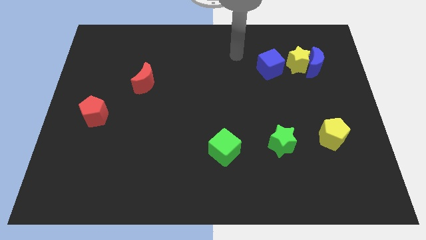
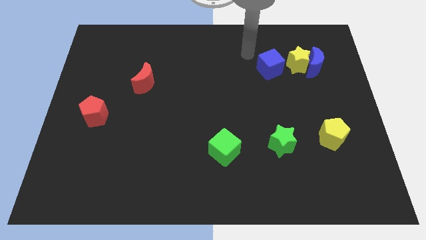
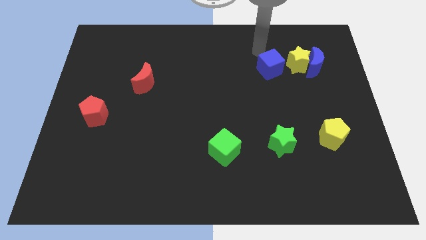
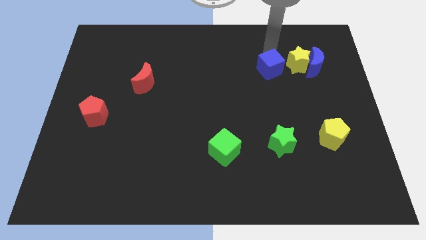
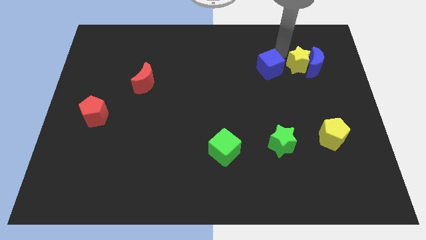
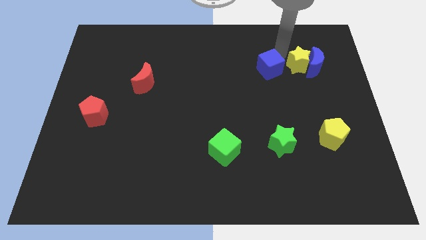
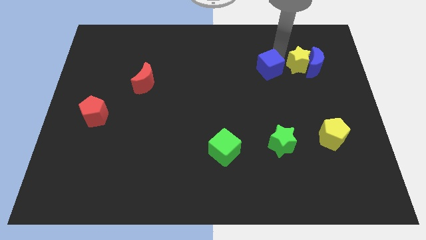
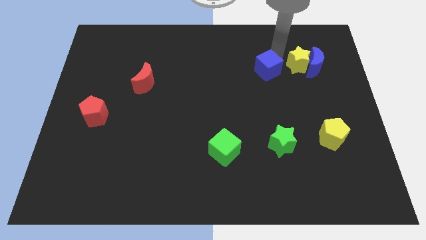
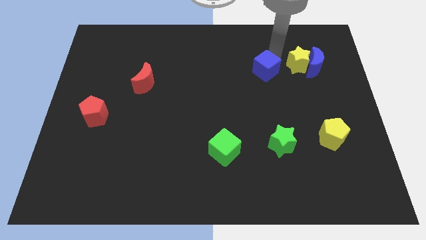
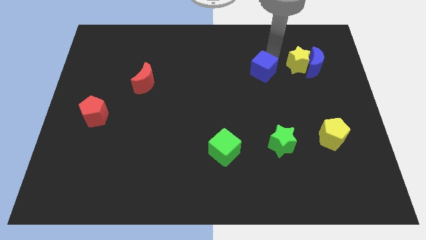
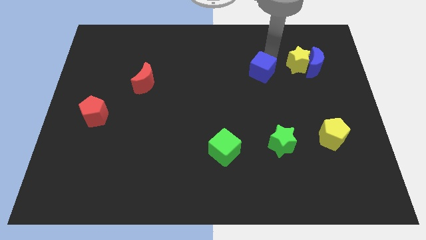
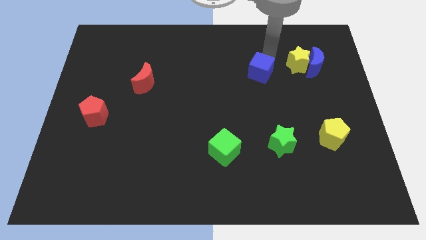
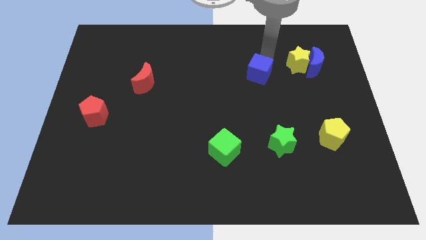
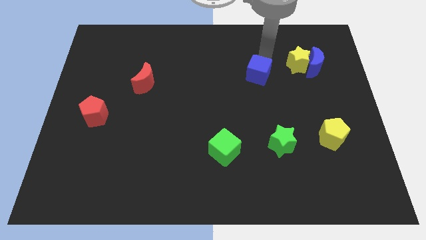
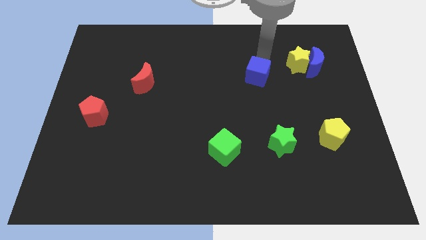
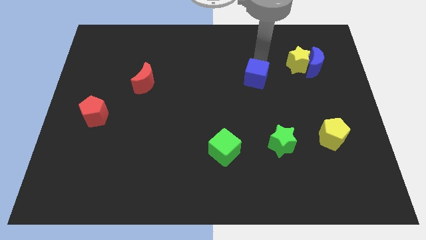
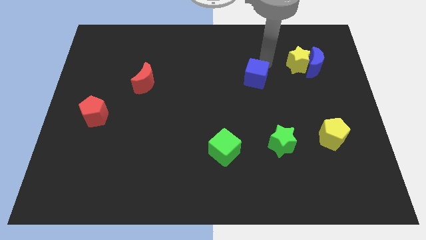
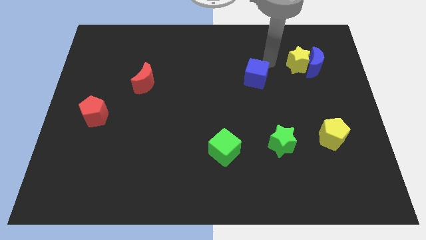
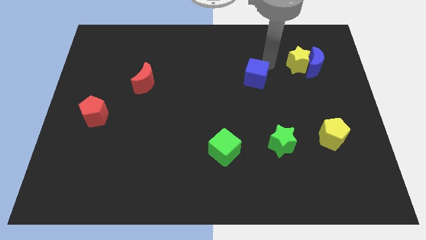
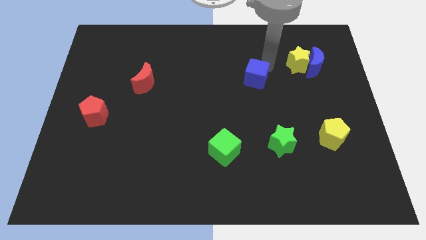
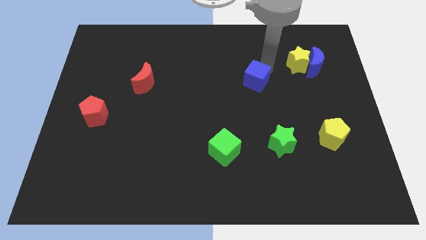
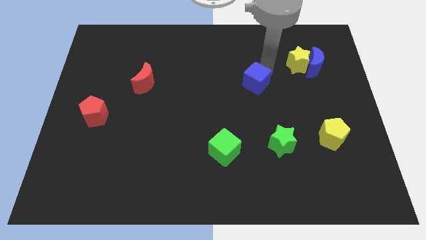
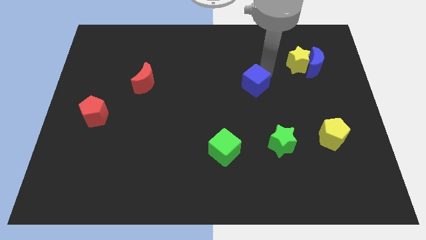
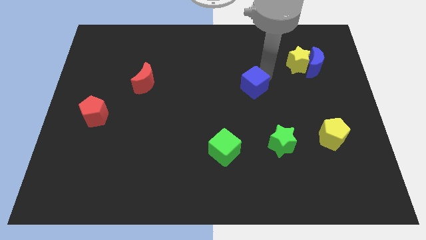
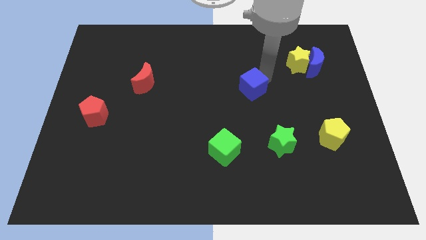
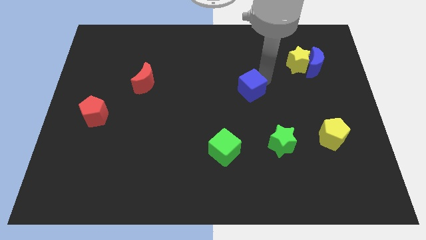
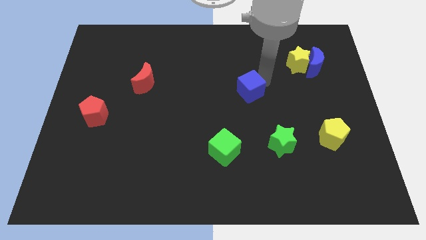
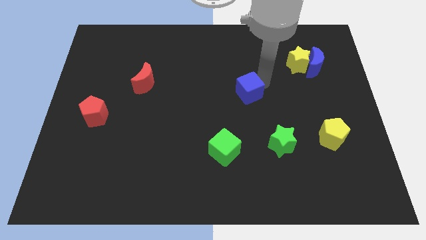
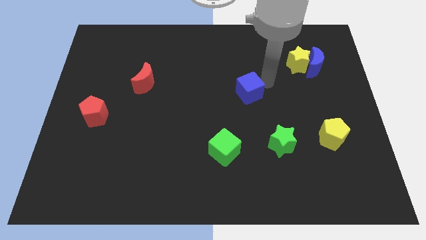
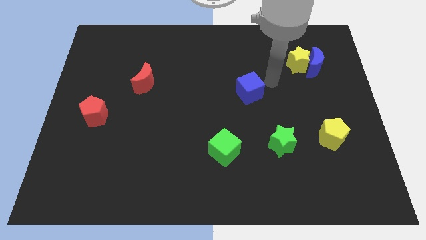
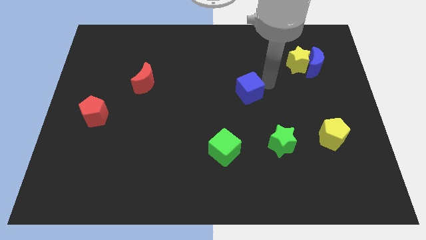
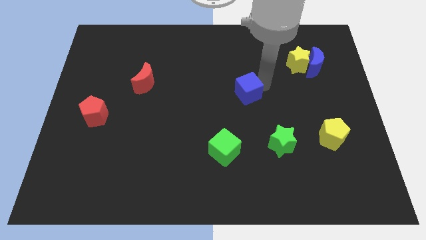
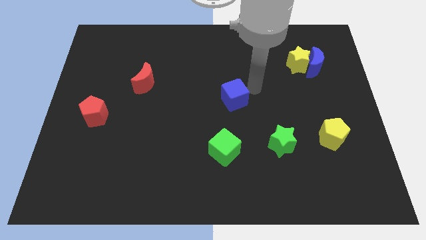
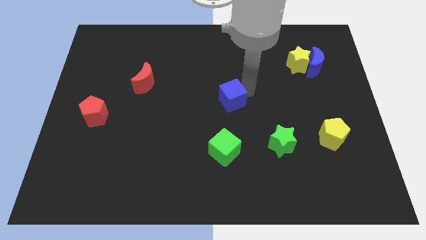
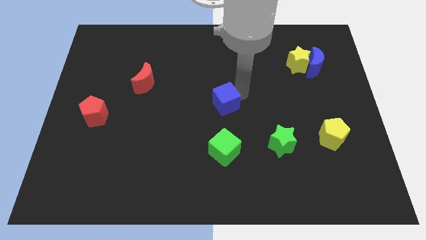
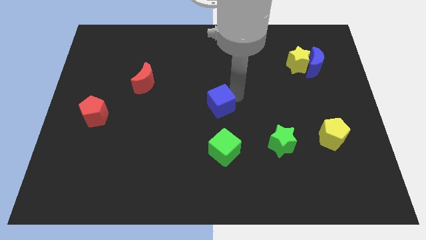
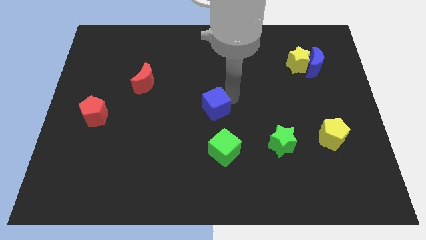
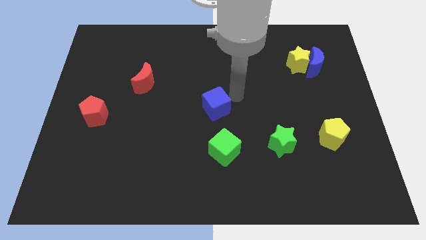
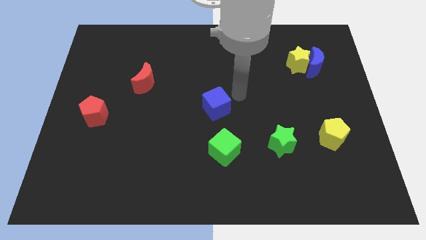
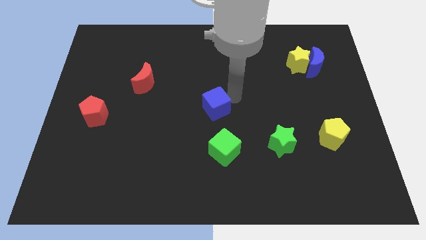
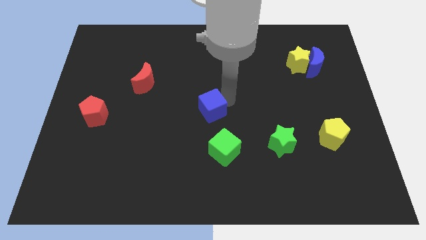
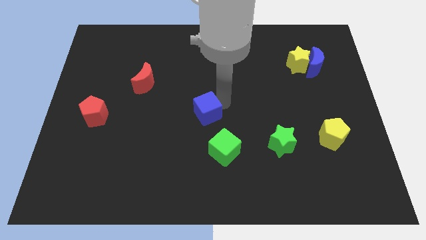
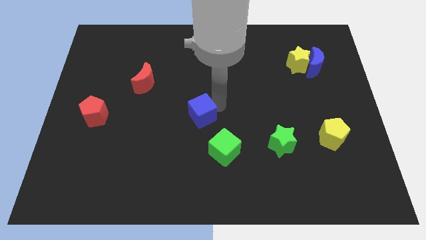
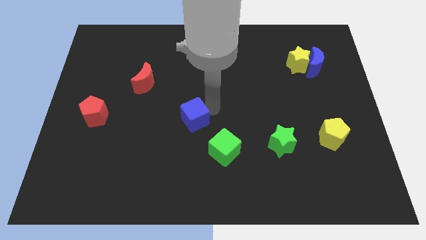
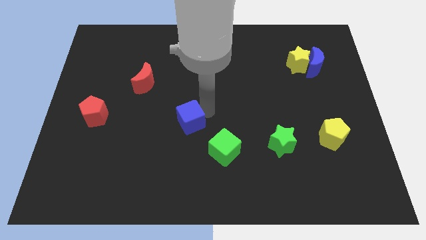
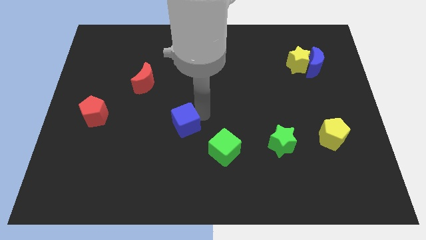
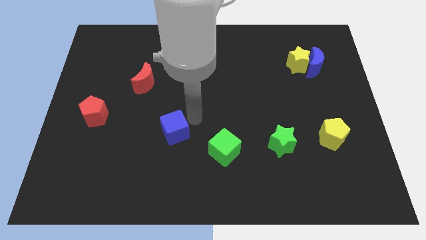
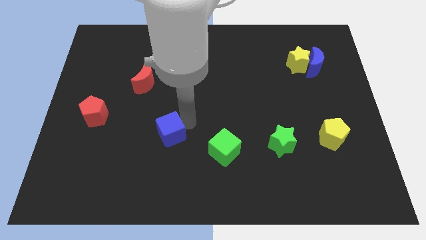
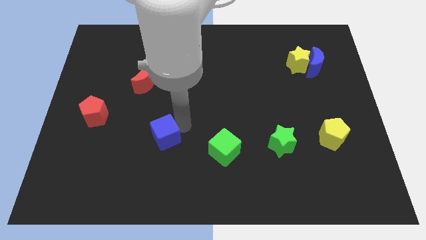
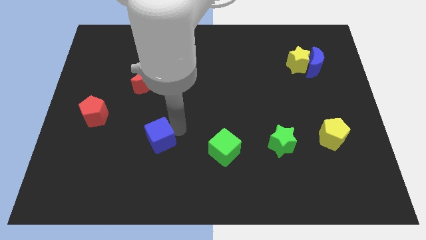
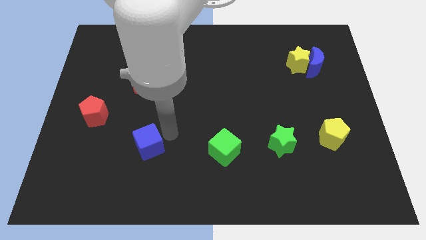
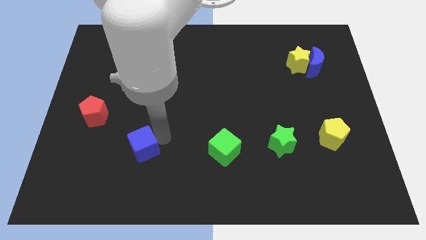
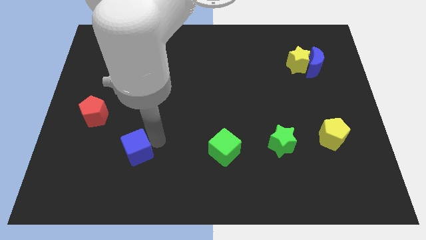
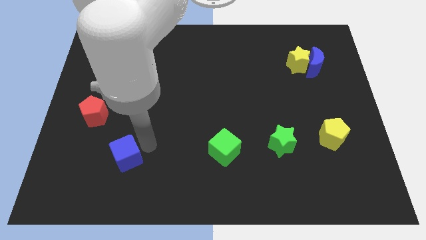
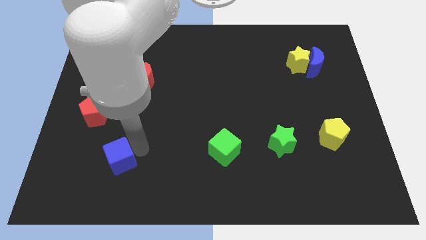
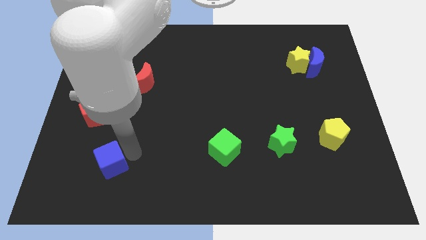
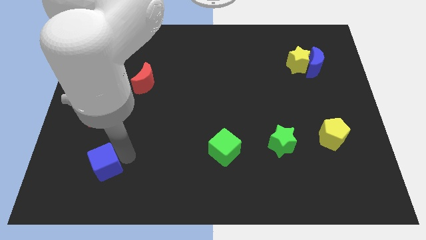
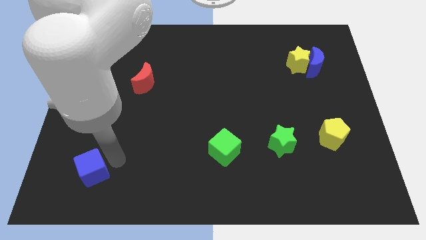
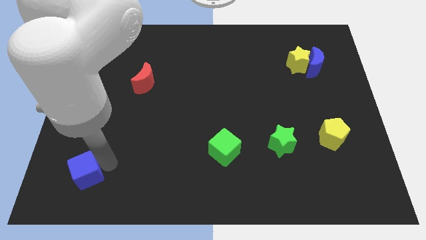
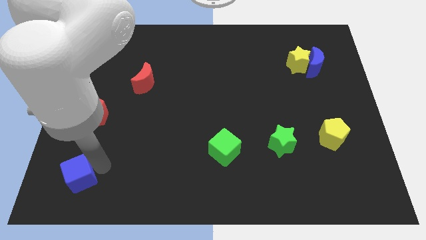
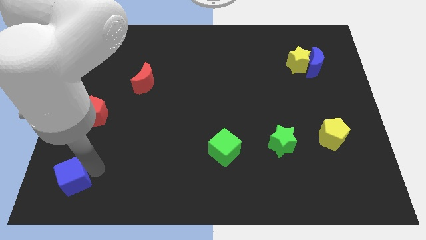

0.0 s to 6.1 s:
put the blue cube to the bottom left

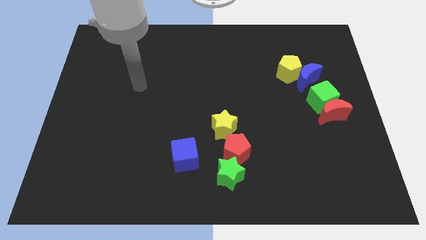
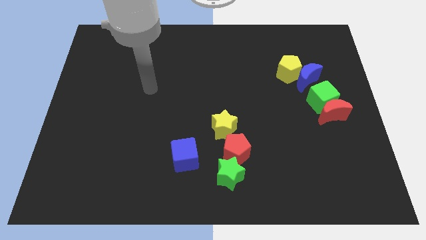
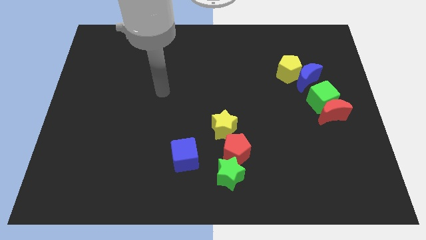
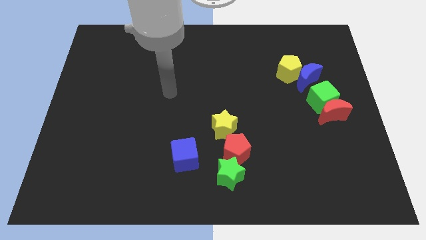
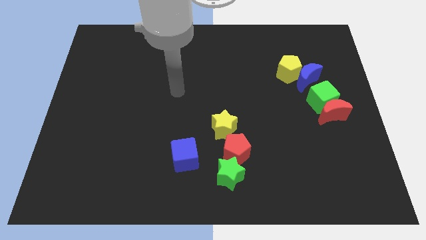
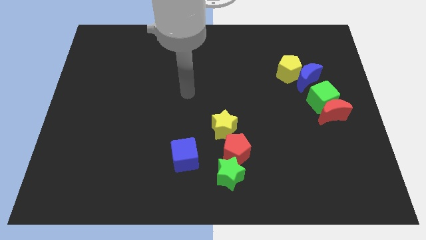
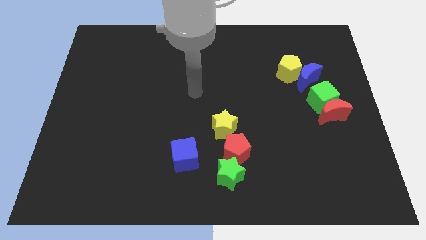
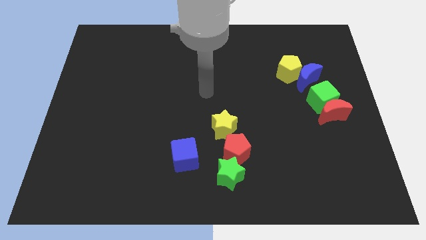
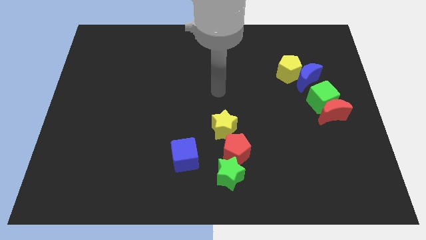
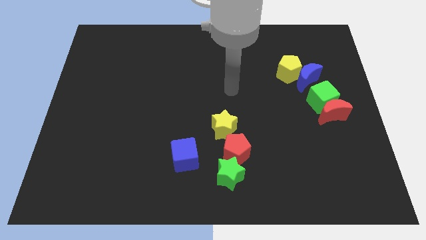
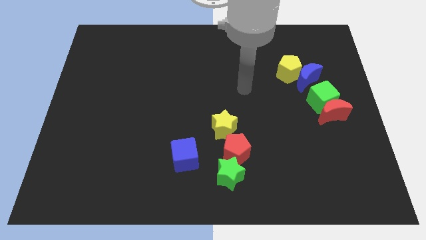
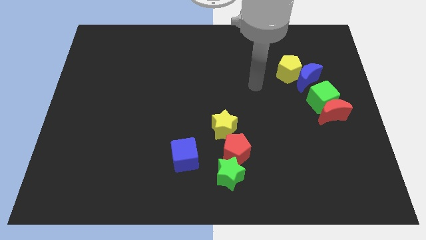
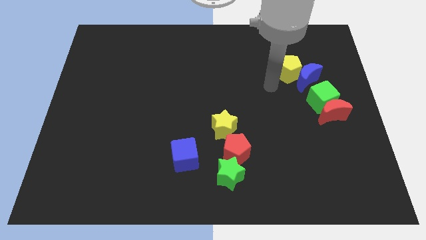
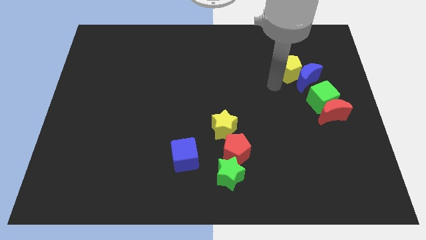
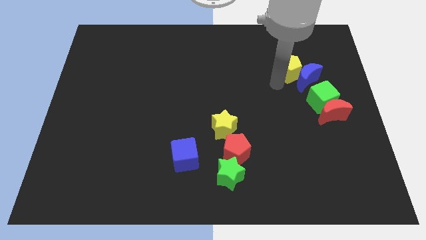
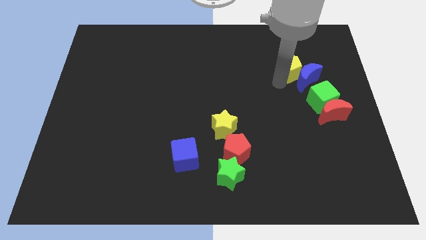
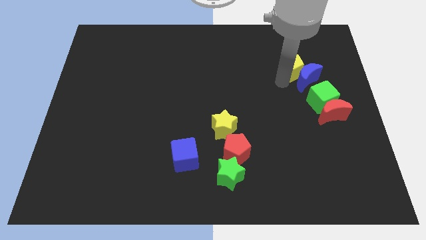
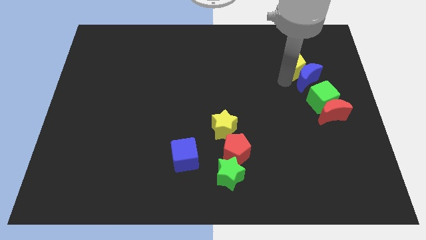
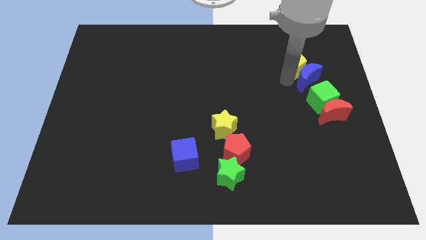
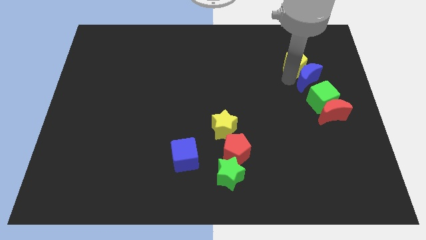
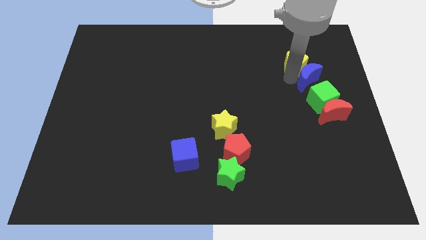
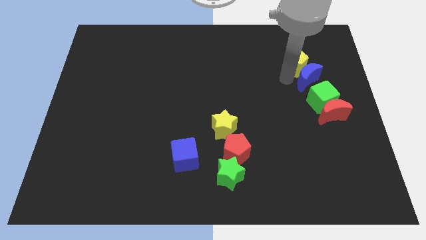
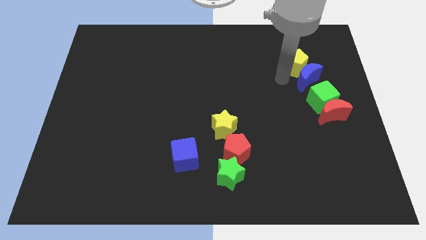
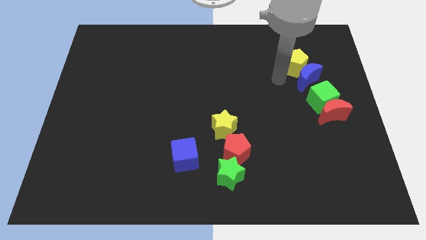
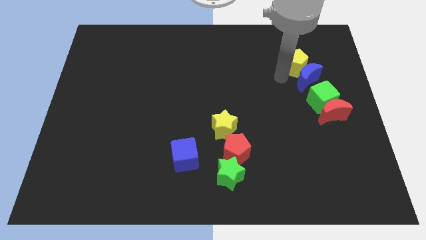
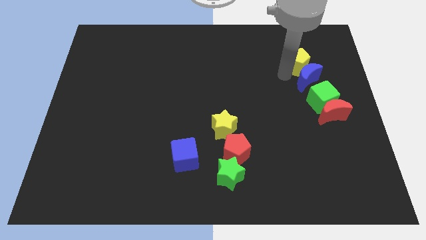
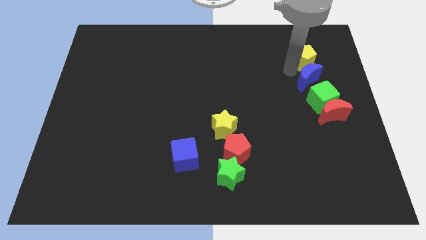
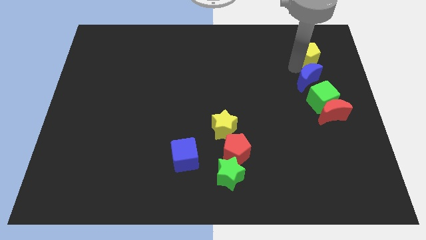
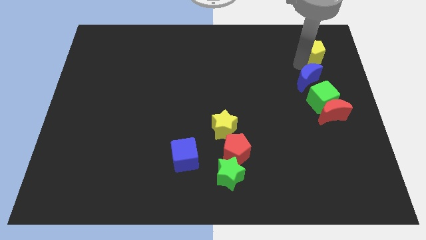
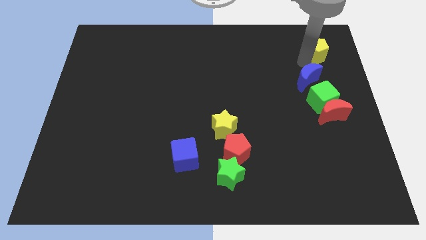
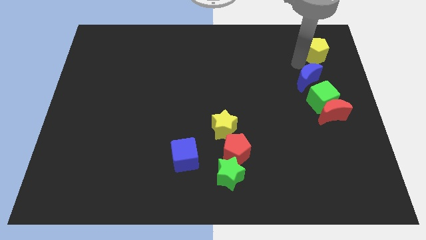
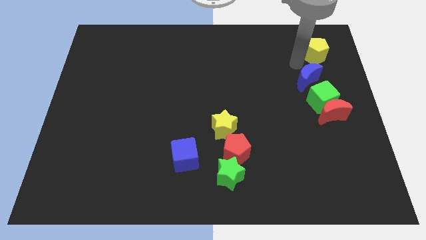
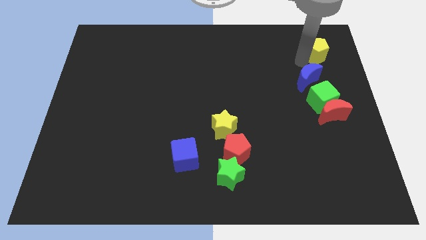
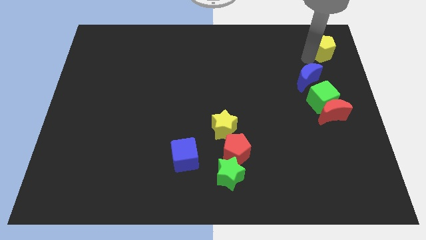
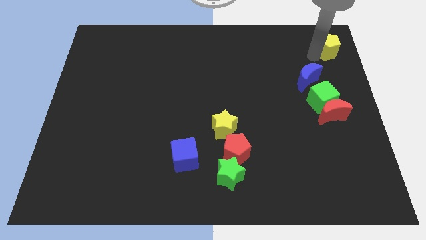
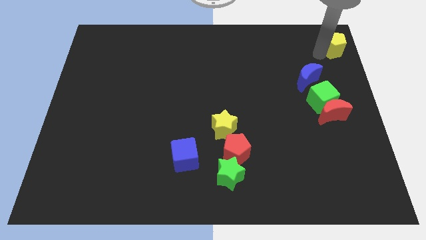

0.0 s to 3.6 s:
slide the yellow pentagon to the top right corner
